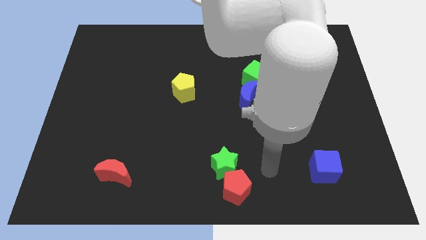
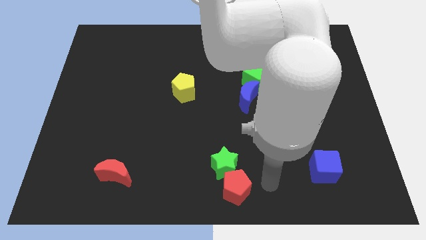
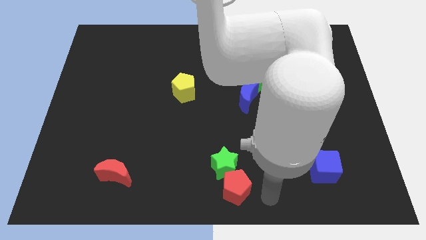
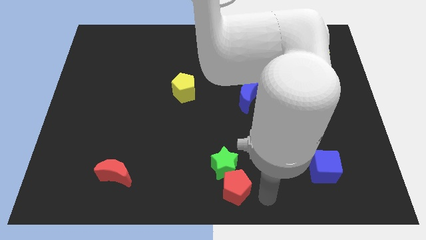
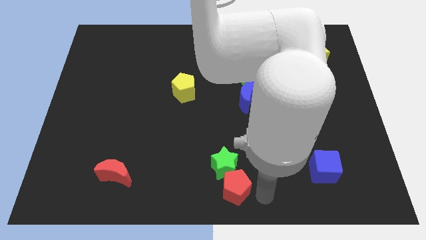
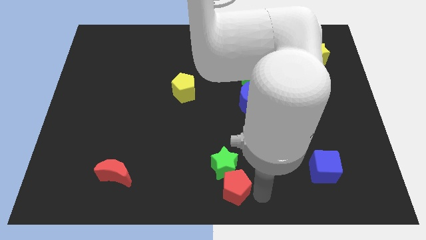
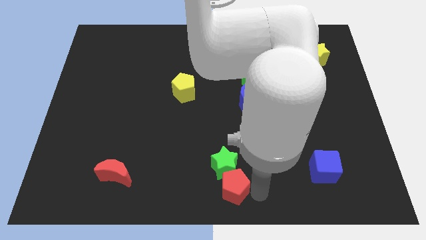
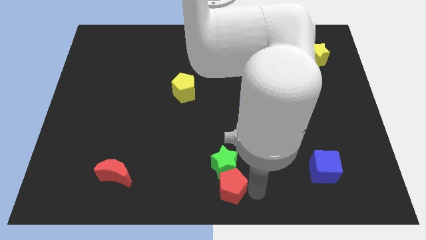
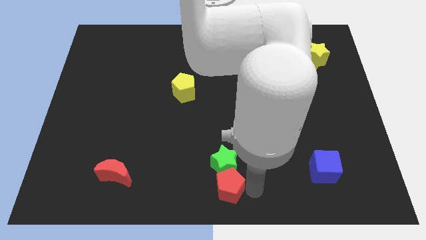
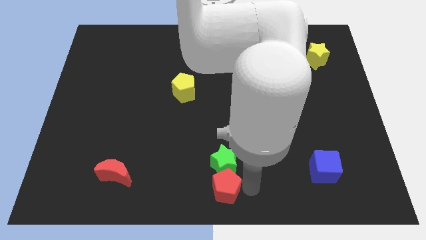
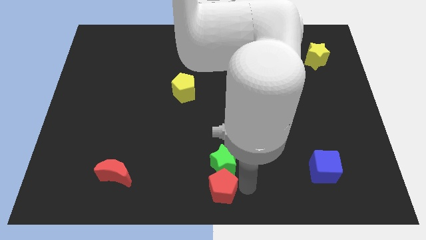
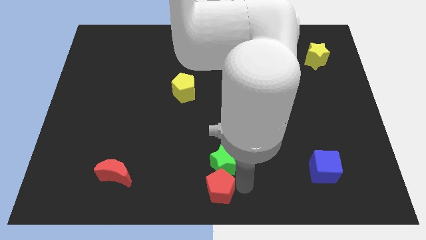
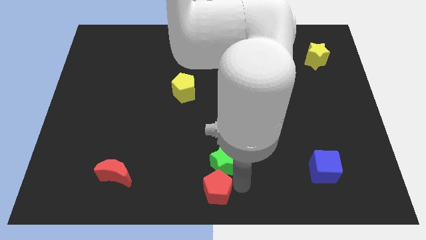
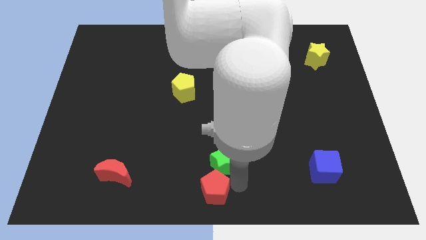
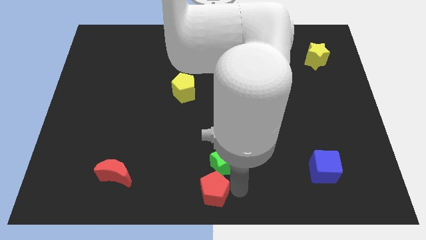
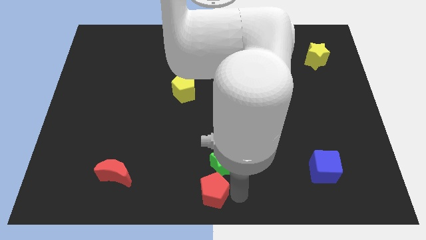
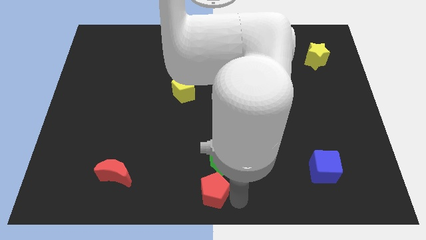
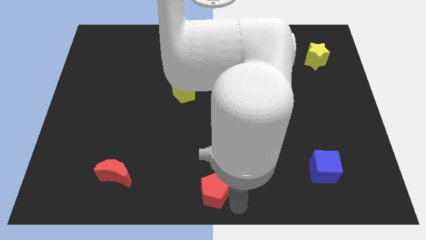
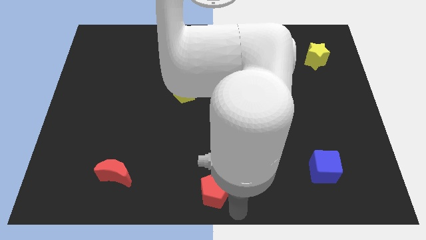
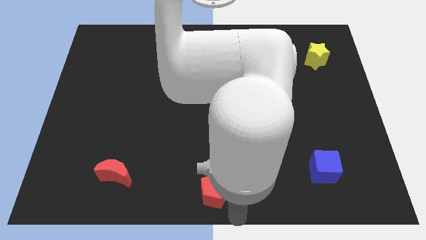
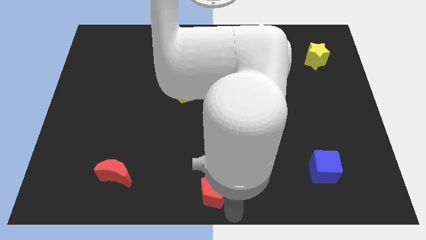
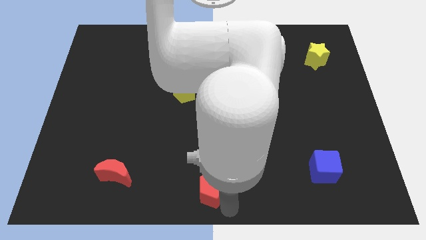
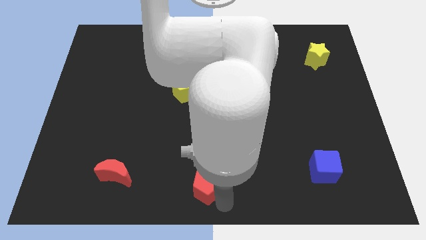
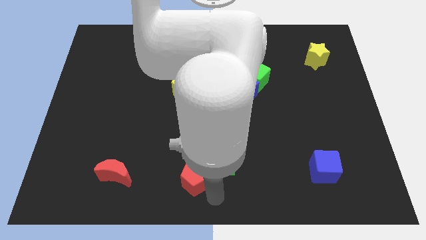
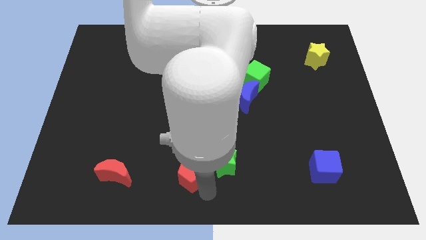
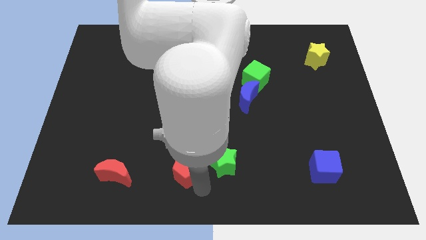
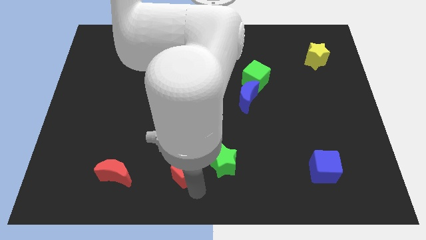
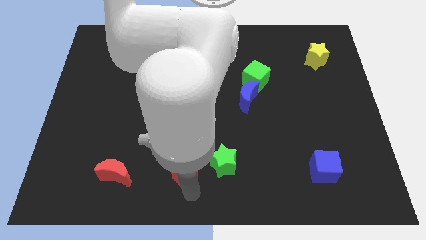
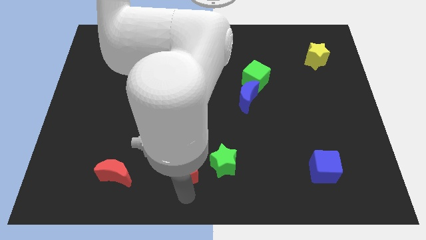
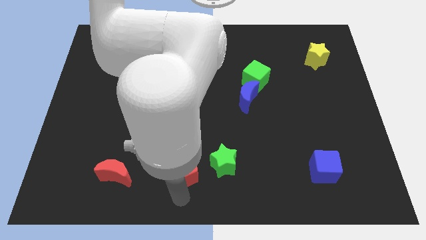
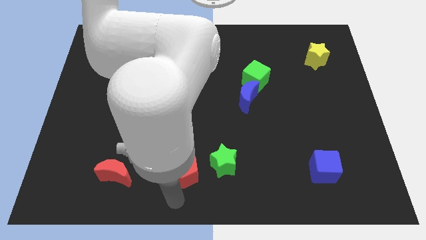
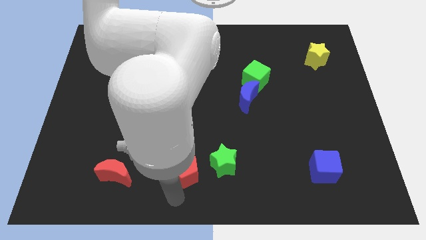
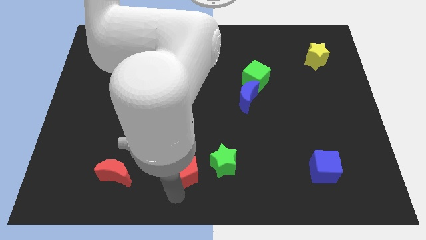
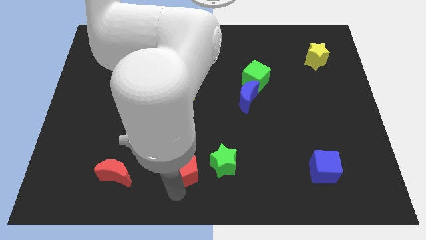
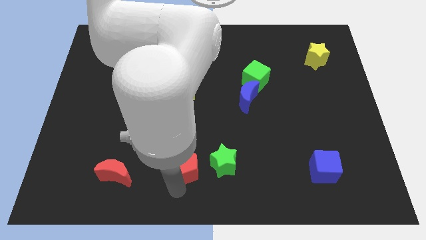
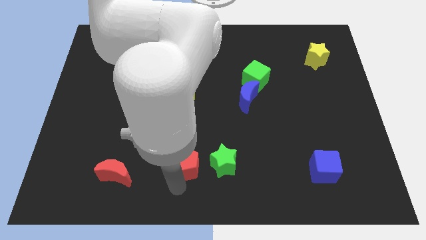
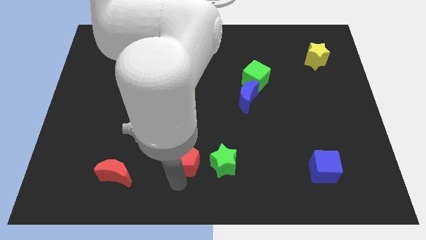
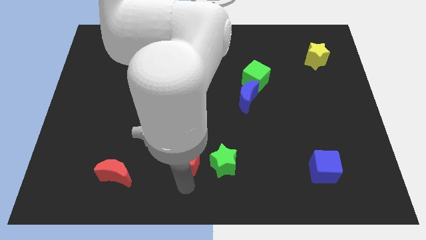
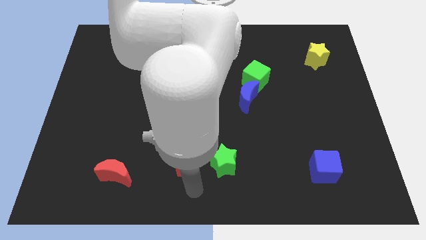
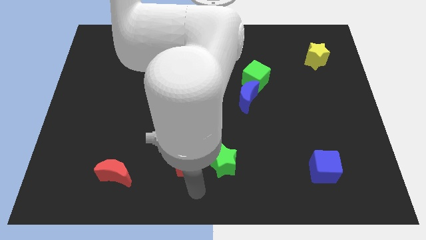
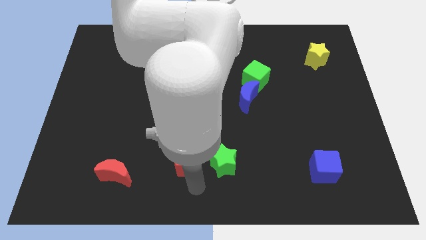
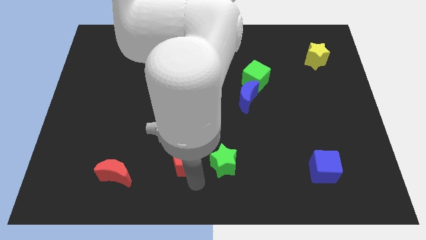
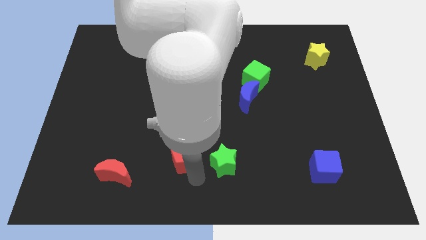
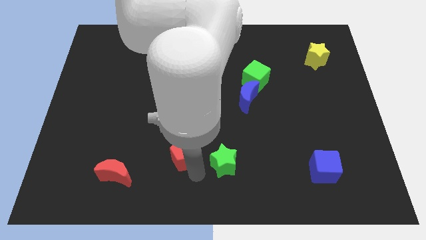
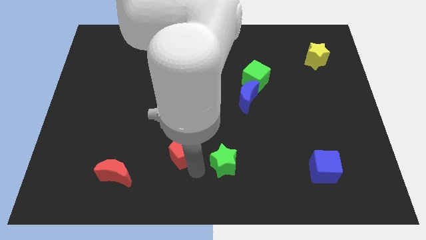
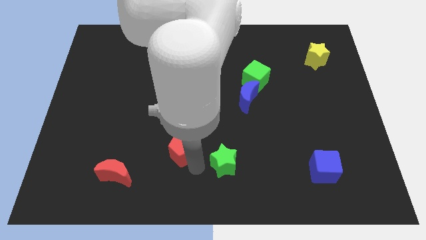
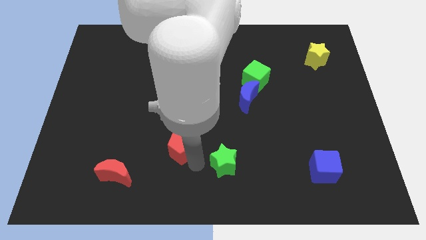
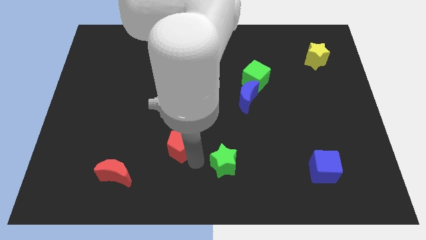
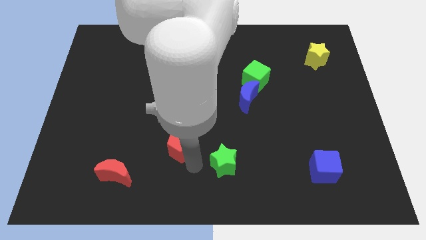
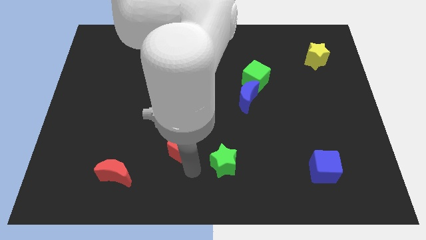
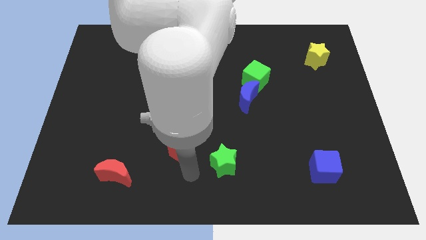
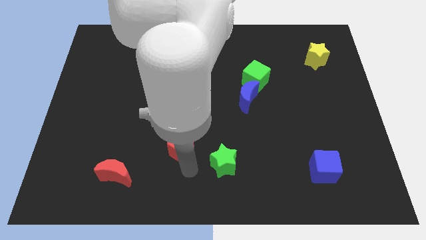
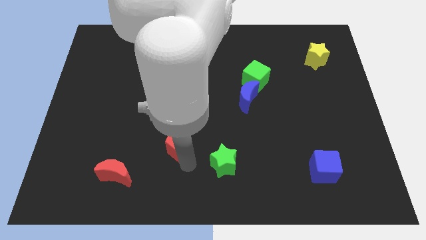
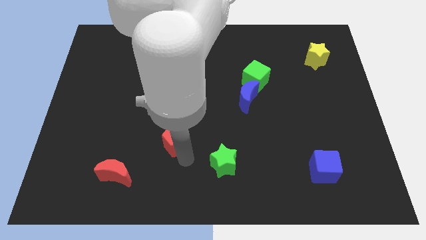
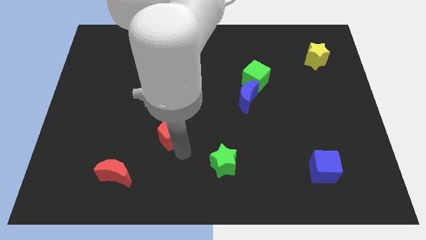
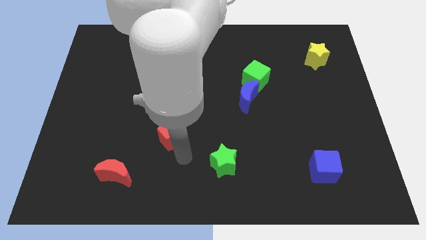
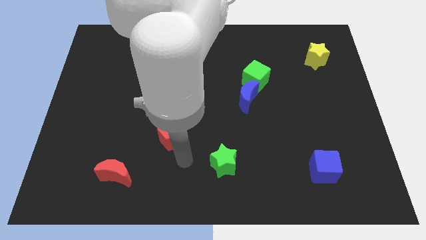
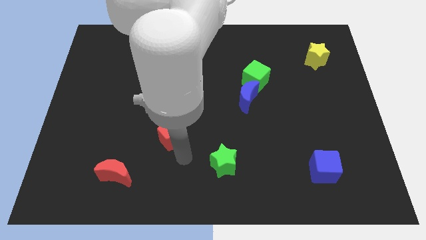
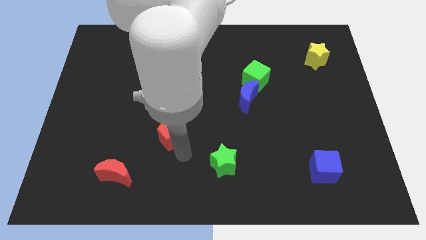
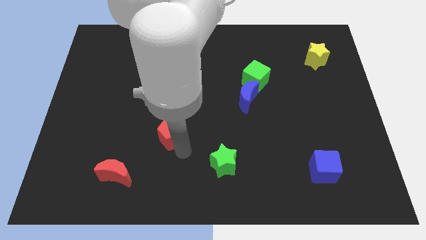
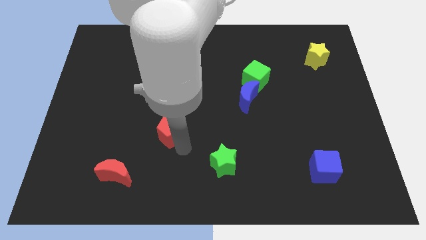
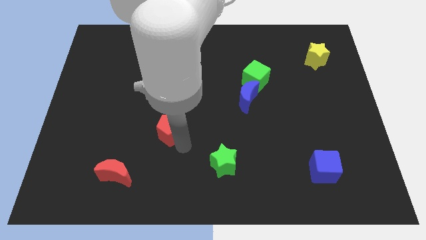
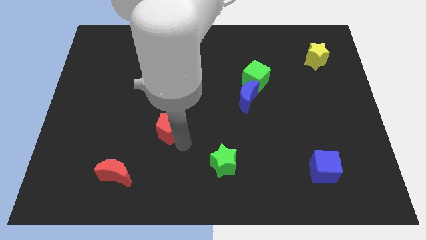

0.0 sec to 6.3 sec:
push the red pentagon diagonally up and left

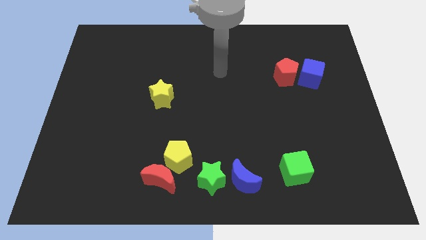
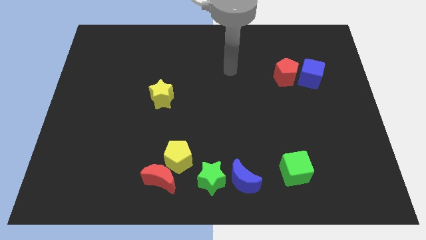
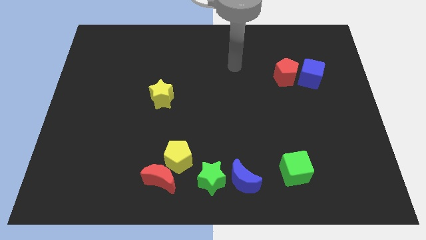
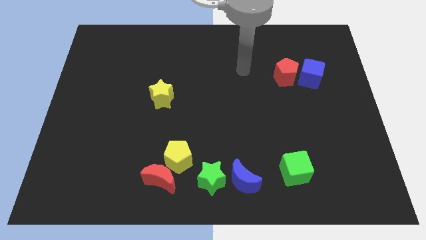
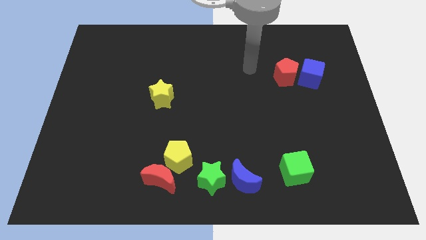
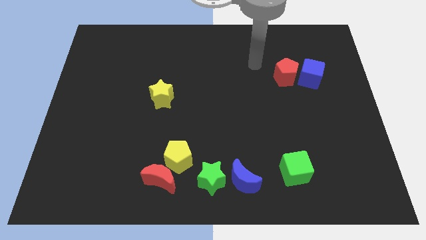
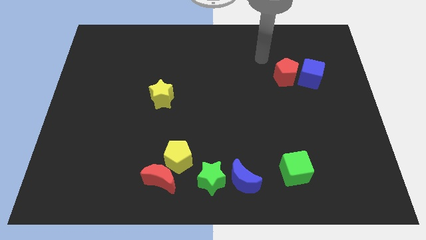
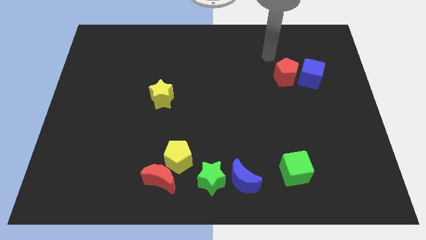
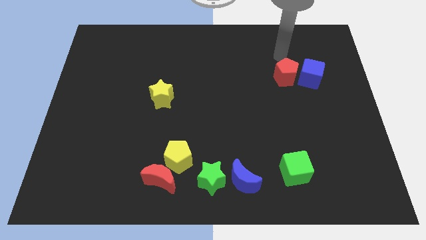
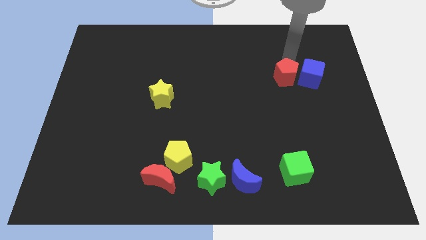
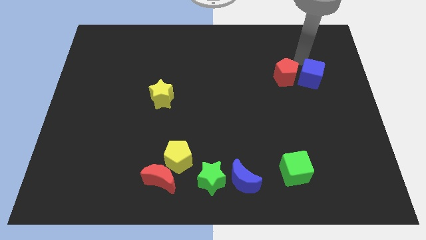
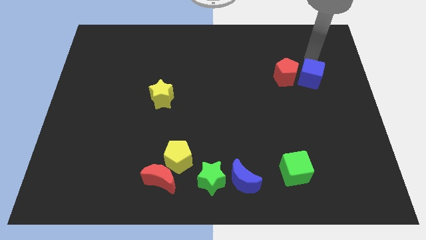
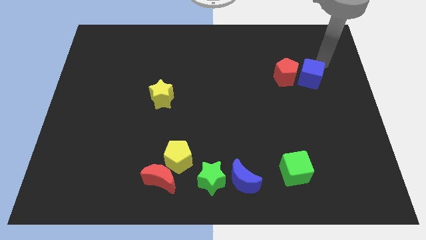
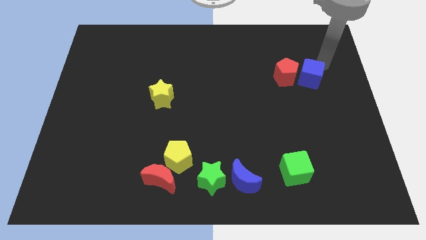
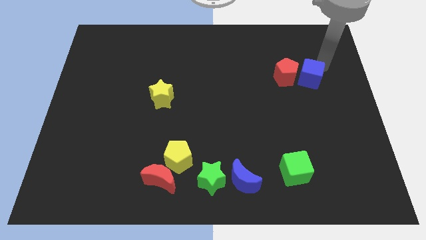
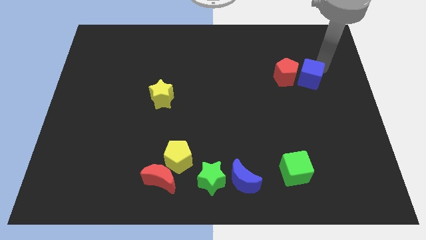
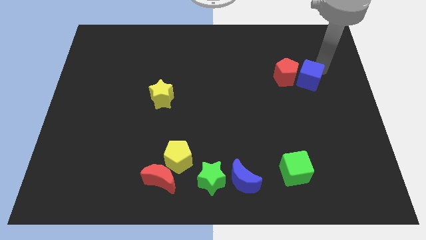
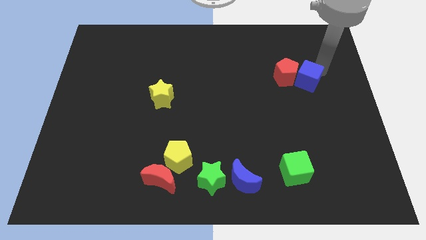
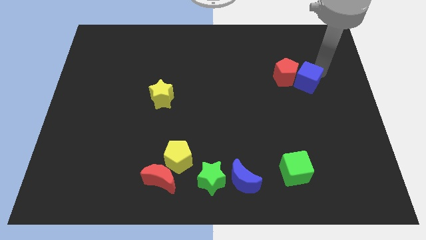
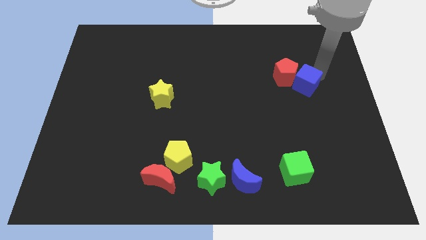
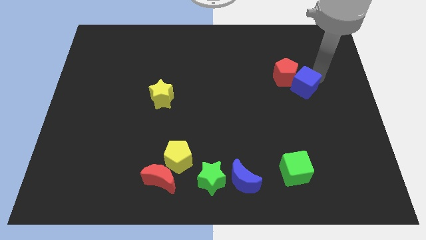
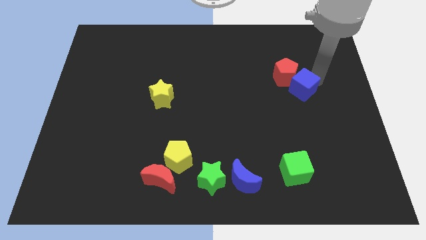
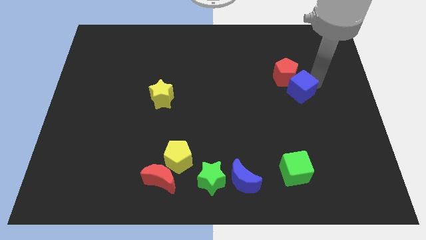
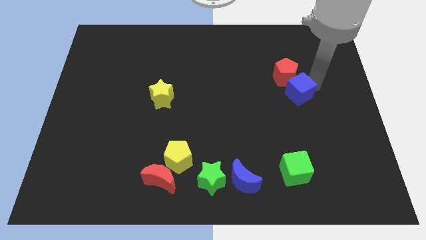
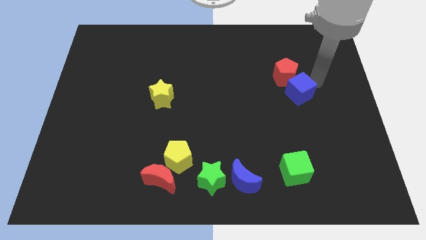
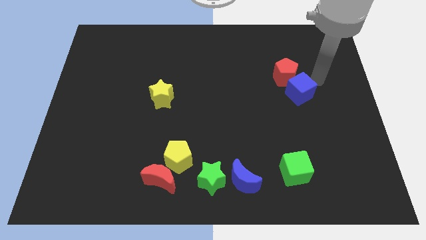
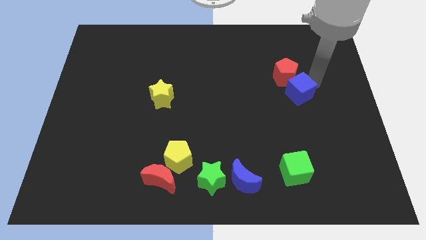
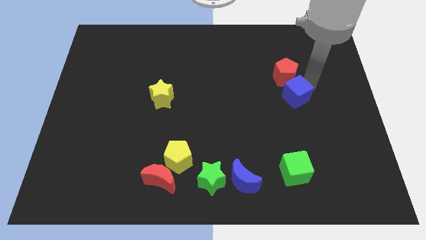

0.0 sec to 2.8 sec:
slightly move the blue cube down and left
